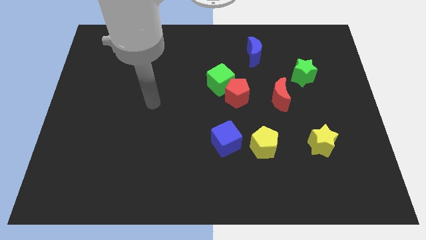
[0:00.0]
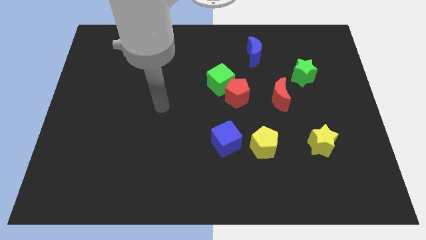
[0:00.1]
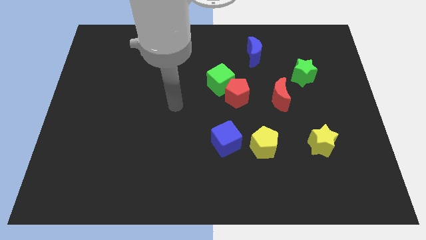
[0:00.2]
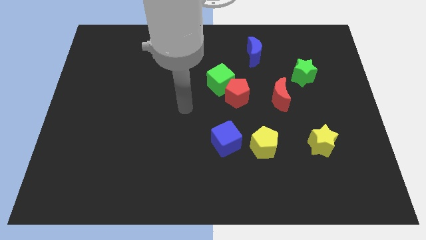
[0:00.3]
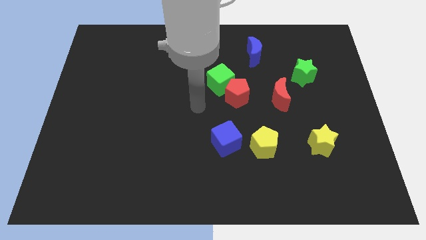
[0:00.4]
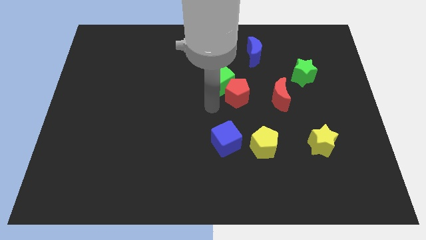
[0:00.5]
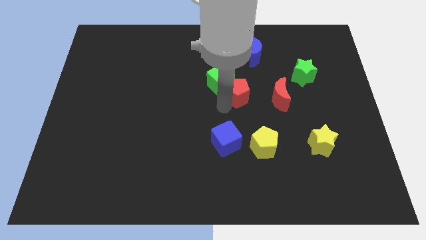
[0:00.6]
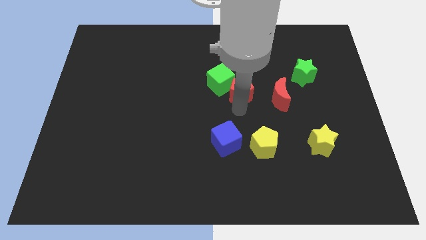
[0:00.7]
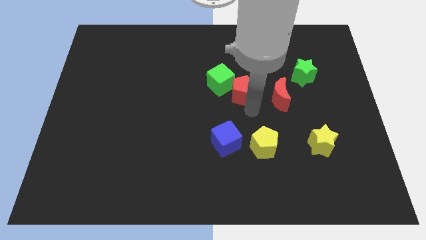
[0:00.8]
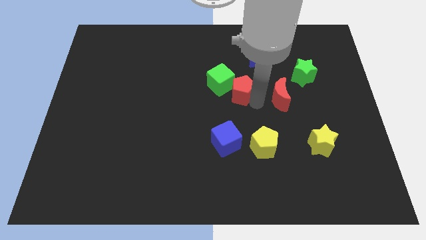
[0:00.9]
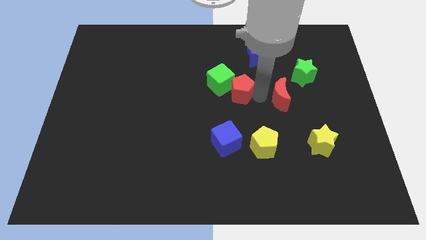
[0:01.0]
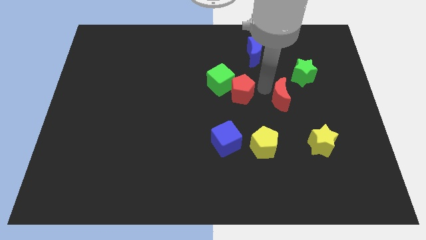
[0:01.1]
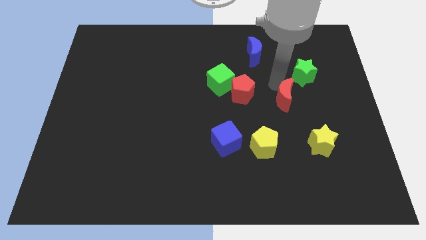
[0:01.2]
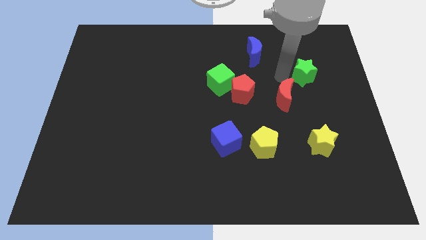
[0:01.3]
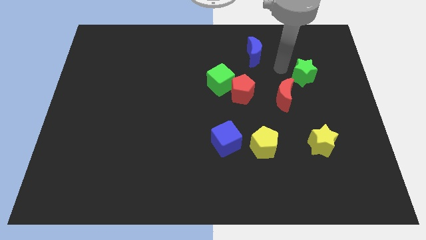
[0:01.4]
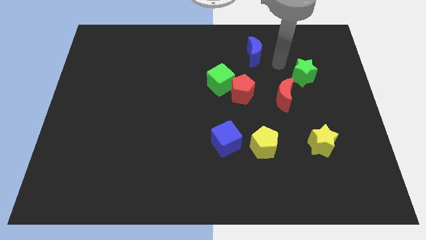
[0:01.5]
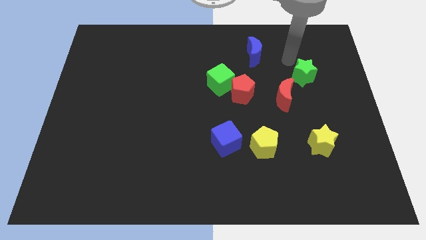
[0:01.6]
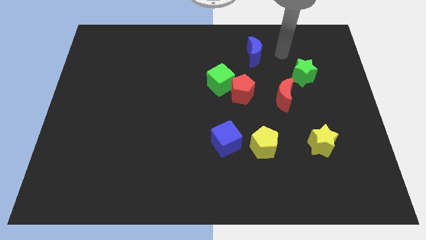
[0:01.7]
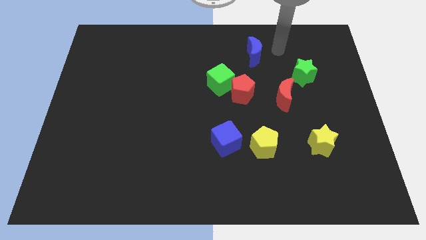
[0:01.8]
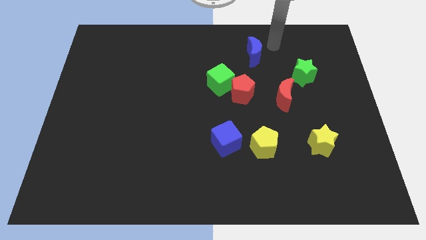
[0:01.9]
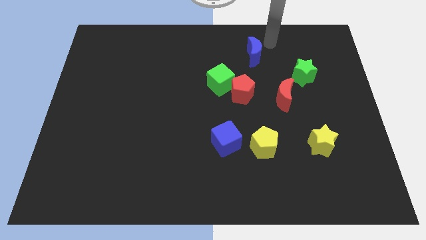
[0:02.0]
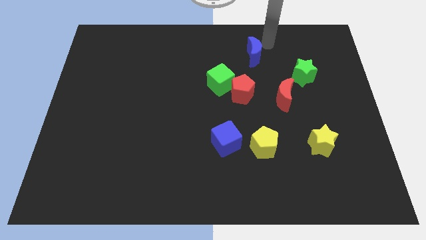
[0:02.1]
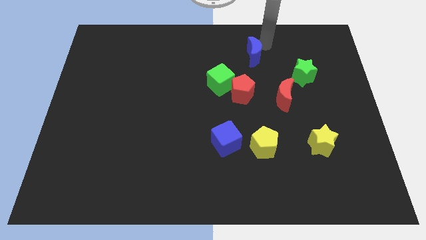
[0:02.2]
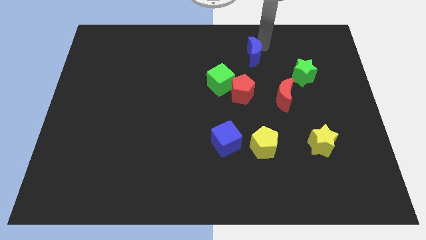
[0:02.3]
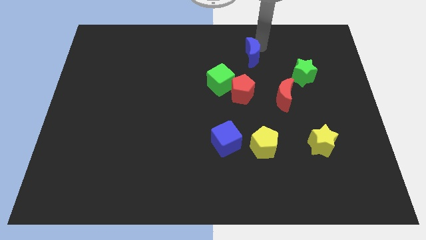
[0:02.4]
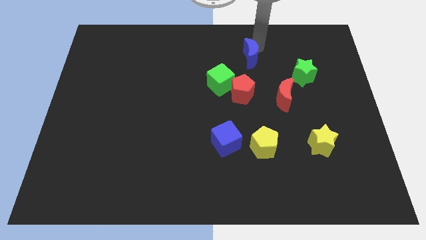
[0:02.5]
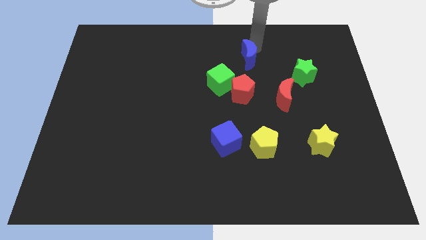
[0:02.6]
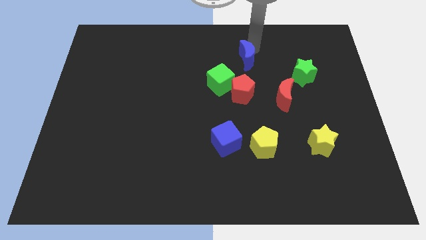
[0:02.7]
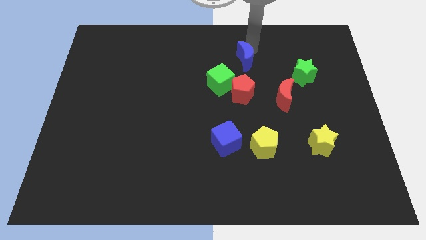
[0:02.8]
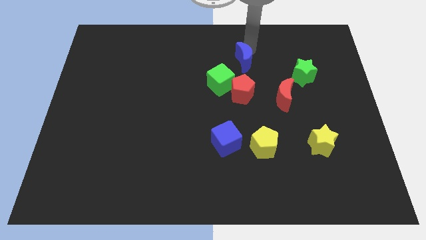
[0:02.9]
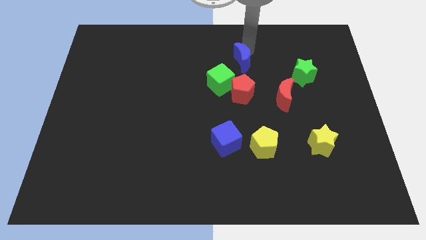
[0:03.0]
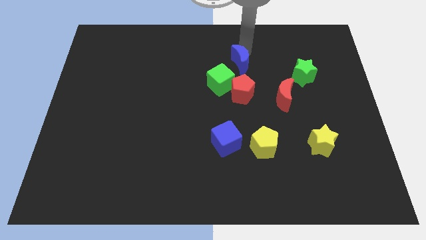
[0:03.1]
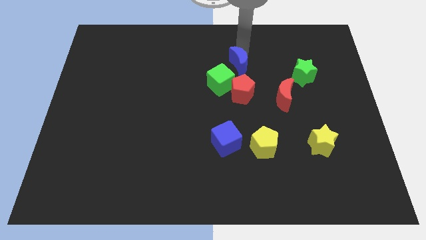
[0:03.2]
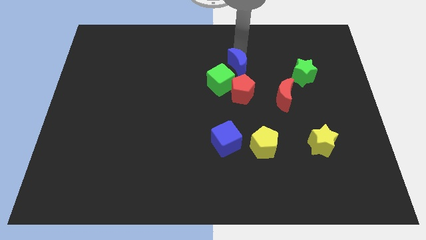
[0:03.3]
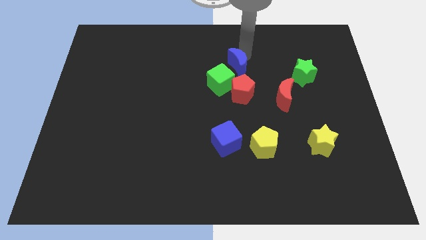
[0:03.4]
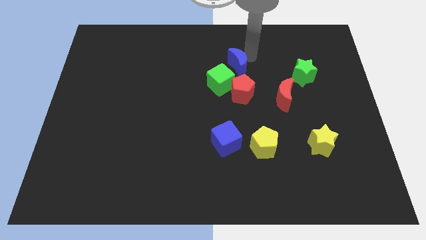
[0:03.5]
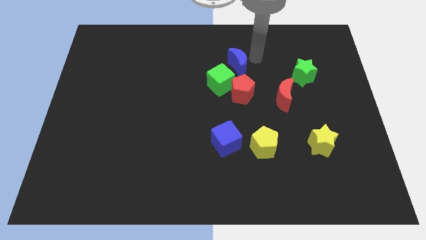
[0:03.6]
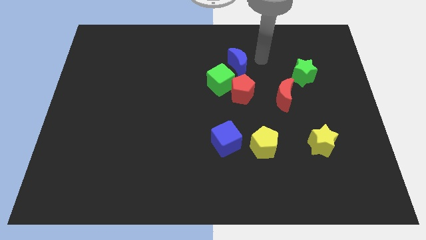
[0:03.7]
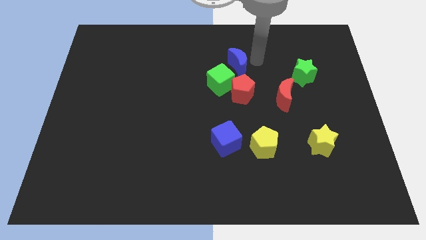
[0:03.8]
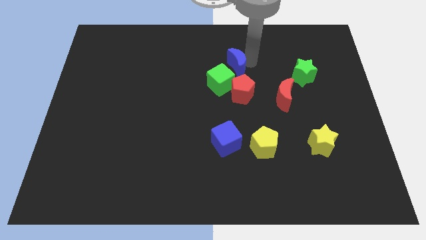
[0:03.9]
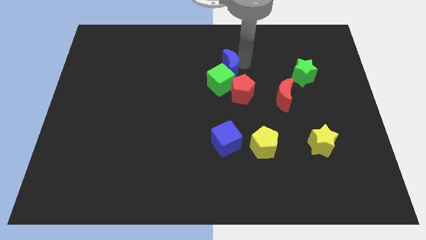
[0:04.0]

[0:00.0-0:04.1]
move the blue moon a little bit downwards and to the left

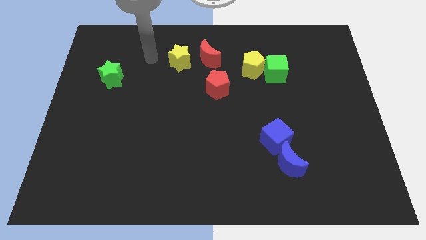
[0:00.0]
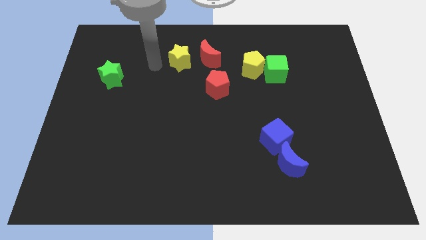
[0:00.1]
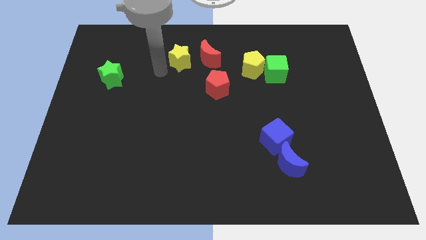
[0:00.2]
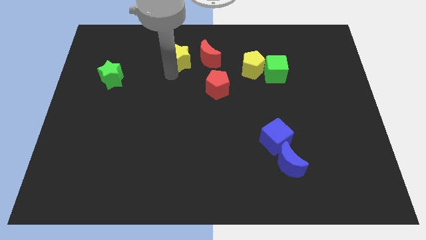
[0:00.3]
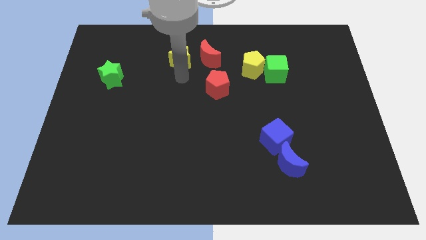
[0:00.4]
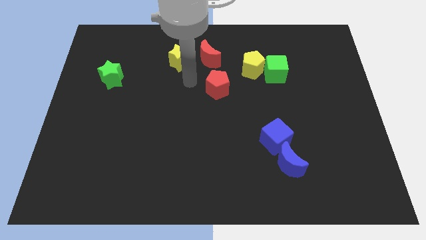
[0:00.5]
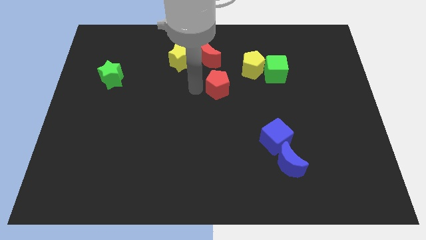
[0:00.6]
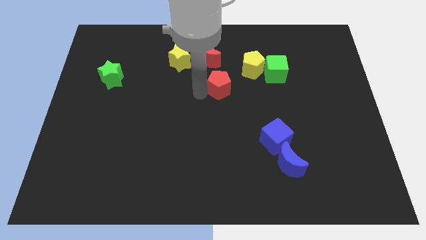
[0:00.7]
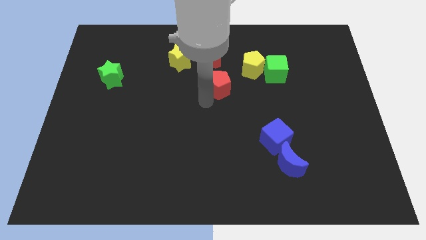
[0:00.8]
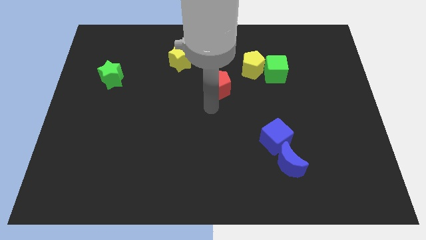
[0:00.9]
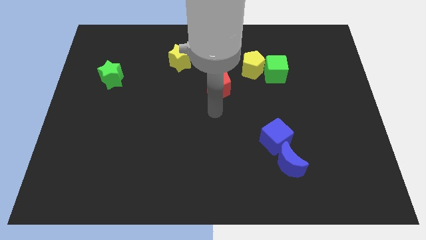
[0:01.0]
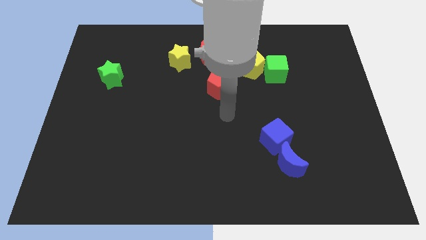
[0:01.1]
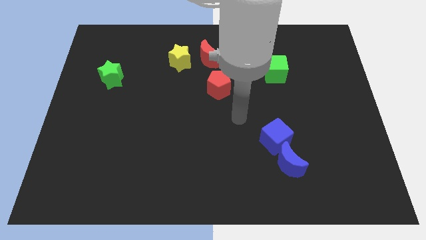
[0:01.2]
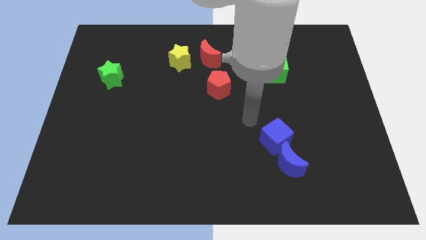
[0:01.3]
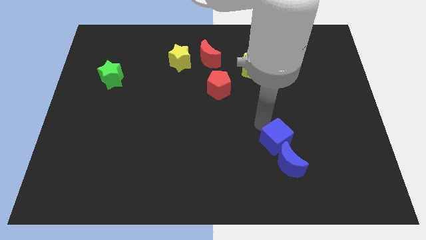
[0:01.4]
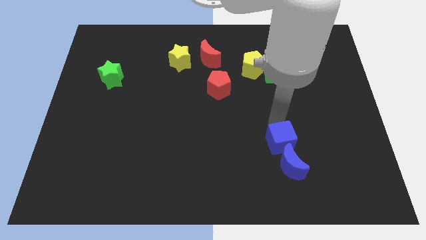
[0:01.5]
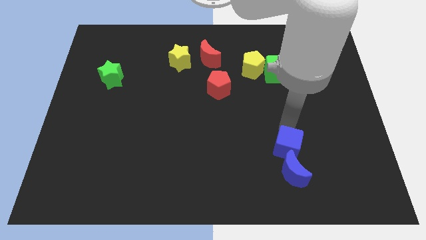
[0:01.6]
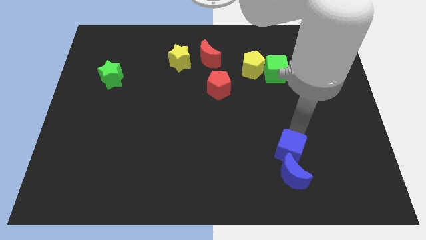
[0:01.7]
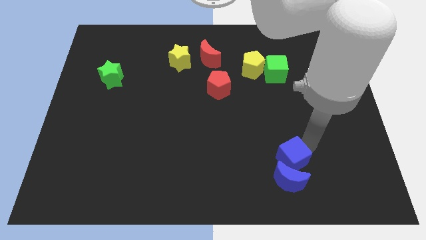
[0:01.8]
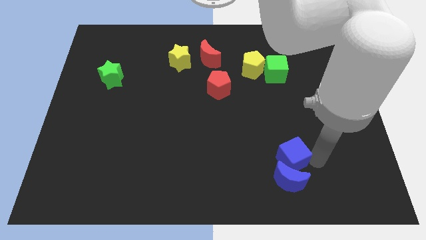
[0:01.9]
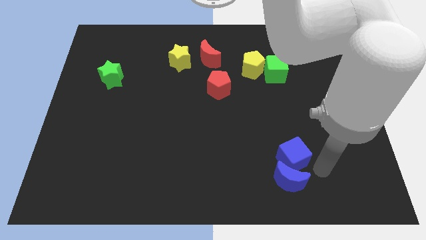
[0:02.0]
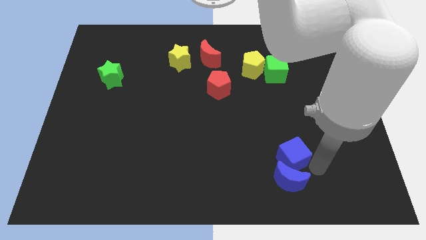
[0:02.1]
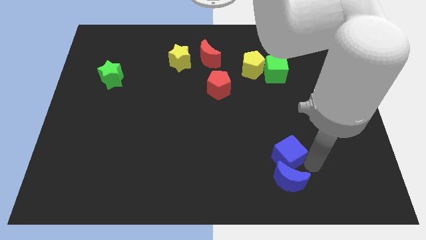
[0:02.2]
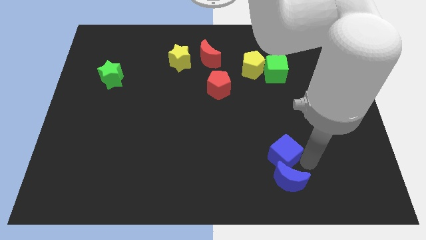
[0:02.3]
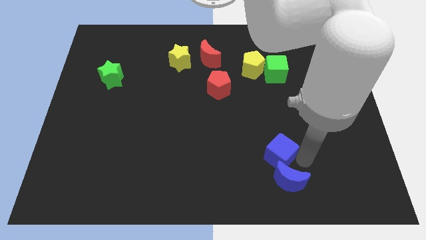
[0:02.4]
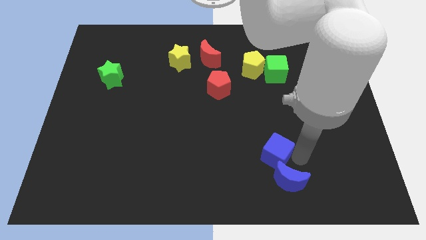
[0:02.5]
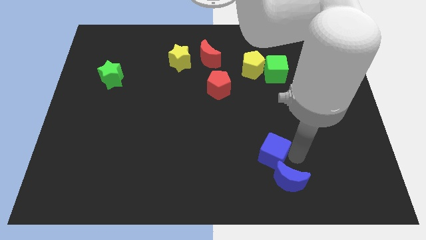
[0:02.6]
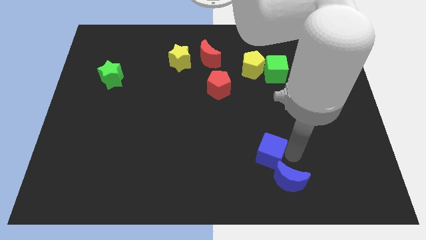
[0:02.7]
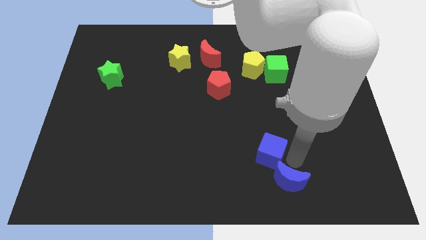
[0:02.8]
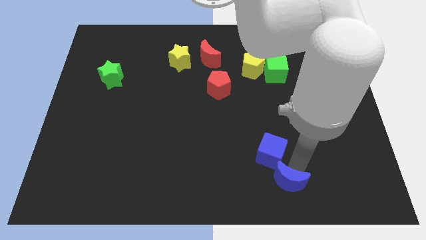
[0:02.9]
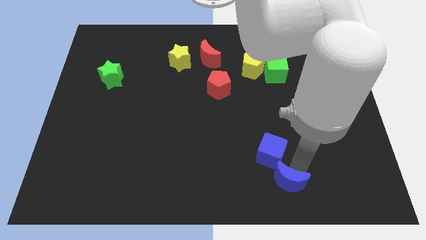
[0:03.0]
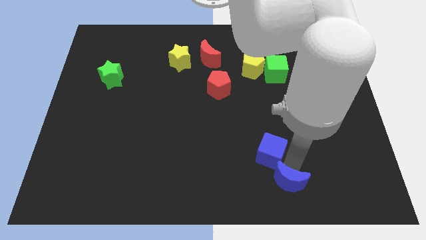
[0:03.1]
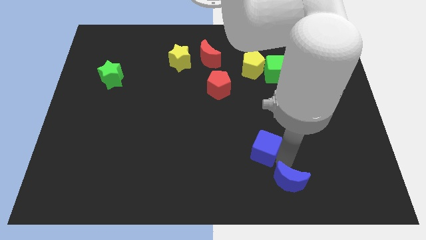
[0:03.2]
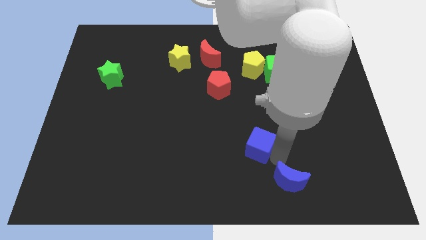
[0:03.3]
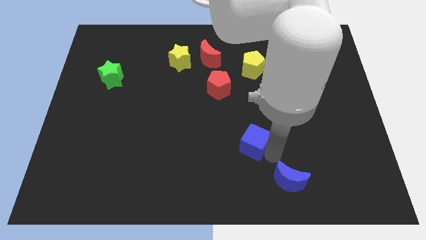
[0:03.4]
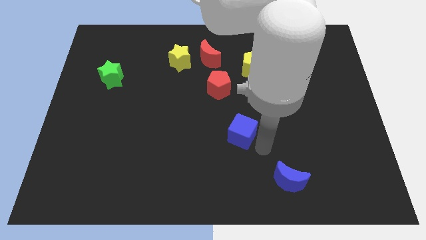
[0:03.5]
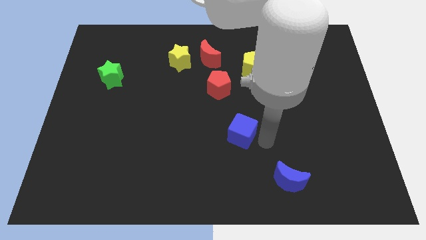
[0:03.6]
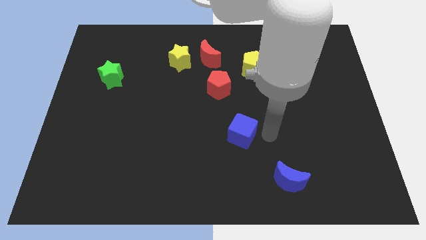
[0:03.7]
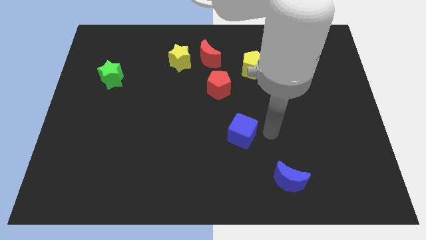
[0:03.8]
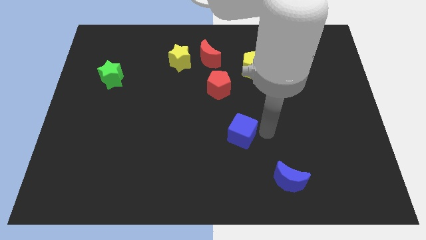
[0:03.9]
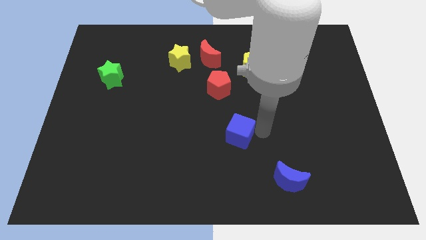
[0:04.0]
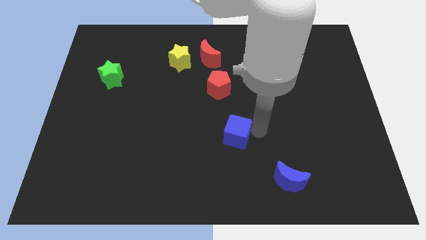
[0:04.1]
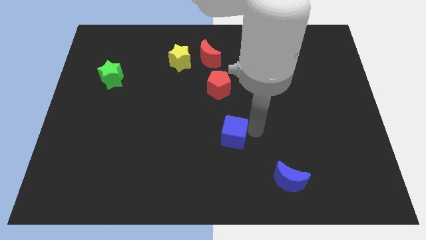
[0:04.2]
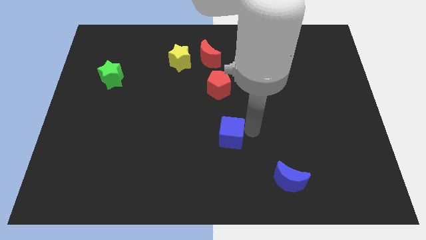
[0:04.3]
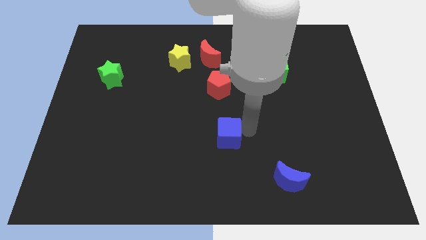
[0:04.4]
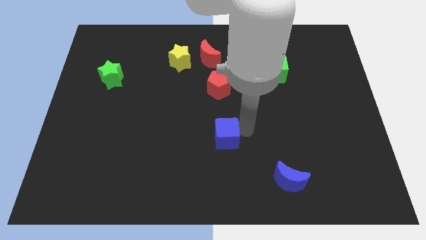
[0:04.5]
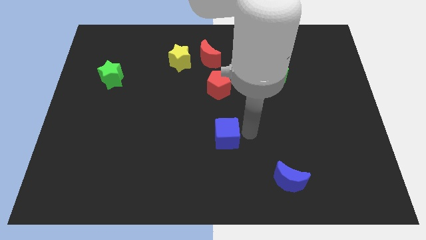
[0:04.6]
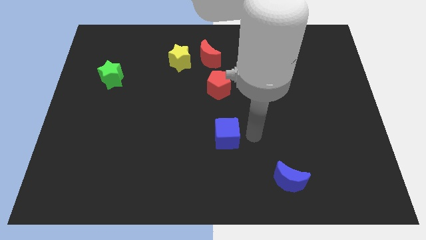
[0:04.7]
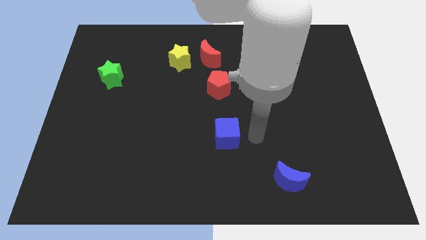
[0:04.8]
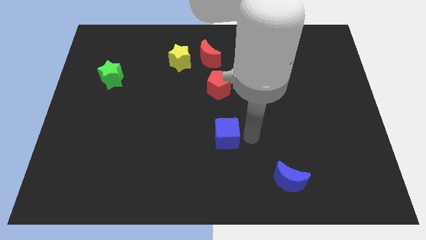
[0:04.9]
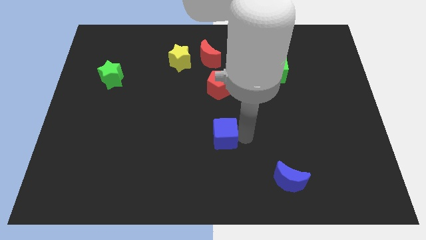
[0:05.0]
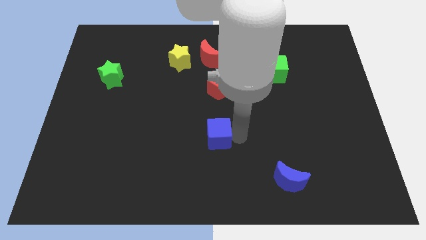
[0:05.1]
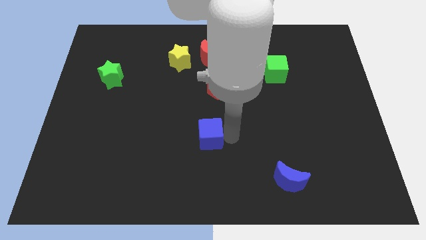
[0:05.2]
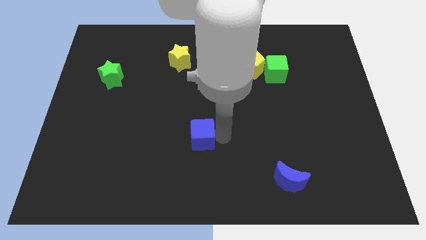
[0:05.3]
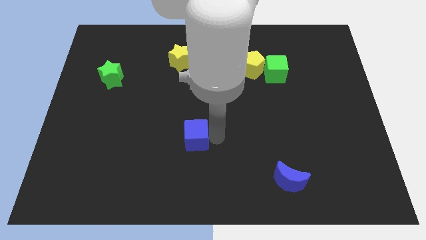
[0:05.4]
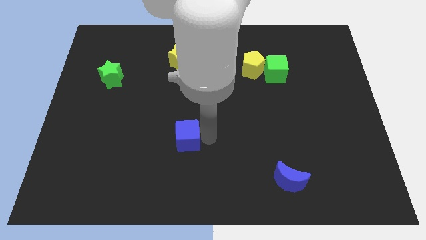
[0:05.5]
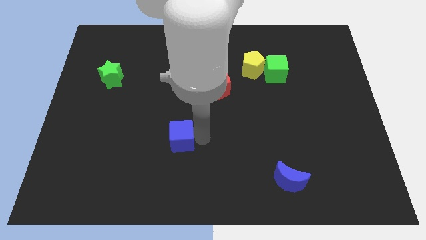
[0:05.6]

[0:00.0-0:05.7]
slide the blue cube left
